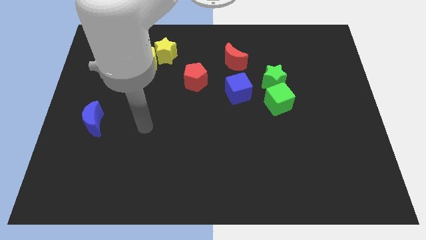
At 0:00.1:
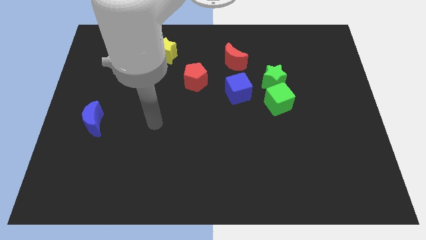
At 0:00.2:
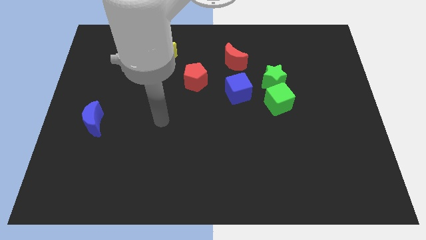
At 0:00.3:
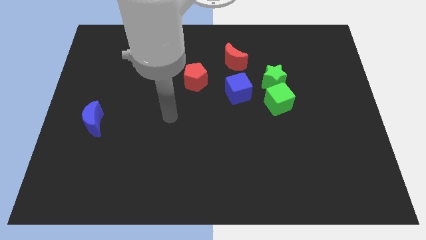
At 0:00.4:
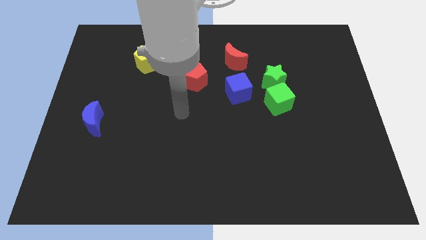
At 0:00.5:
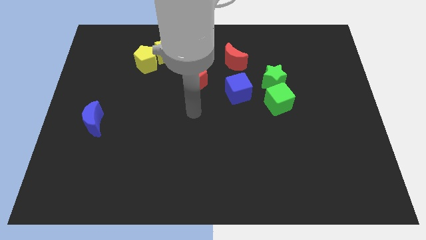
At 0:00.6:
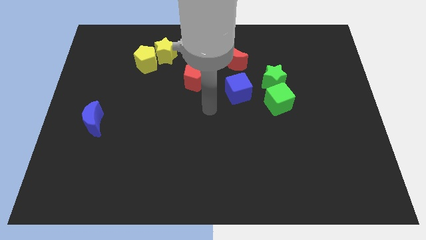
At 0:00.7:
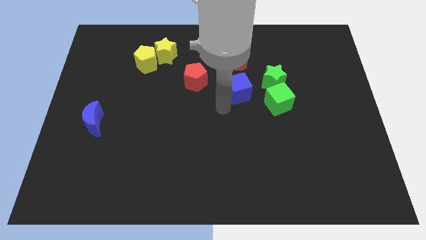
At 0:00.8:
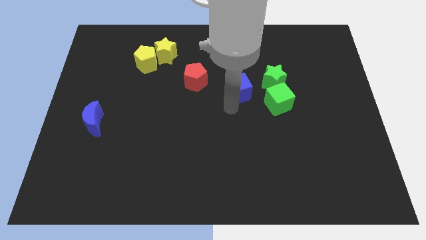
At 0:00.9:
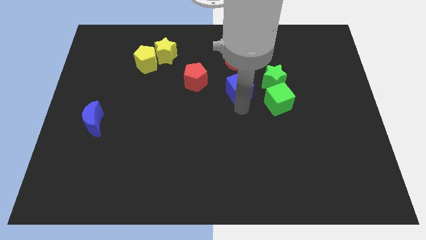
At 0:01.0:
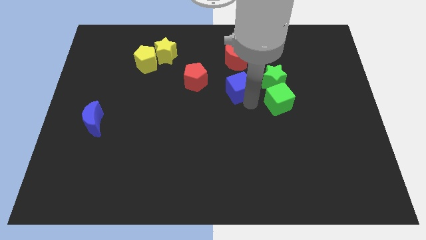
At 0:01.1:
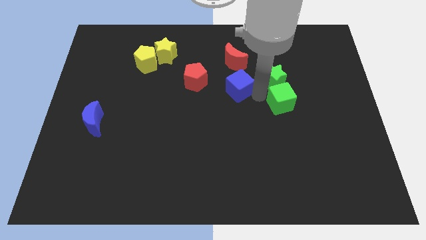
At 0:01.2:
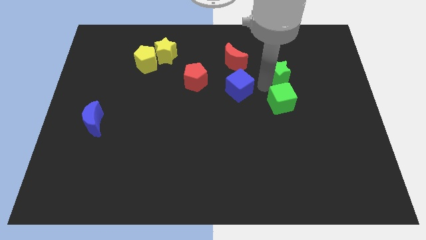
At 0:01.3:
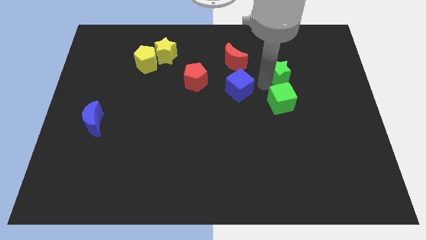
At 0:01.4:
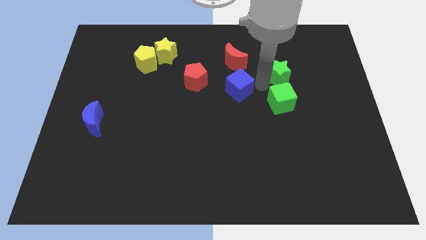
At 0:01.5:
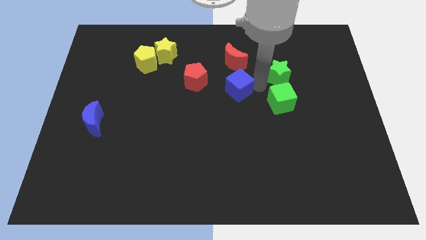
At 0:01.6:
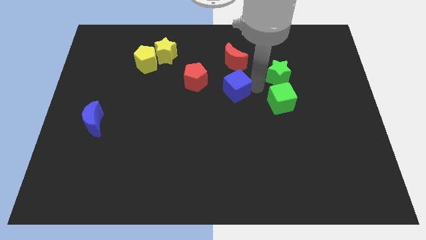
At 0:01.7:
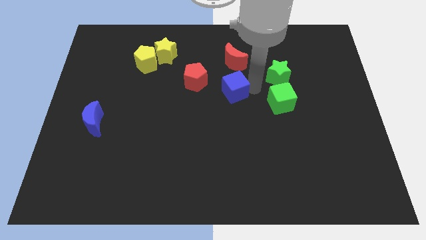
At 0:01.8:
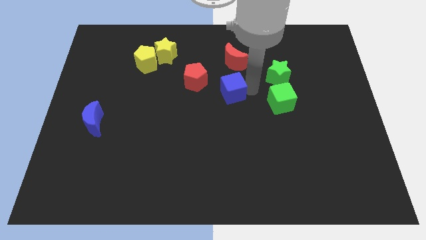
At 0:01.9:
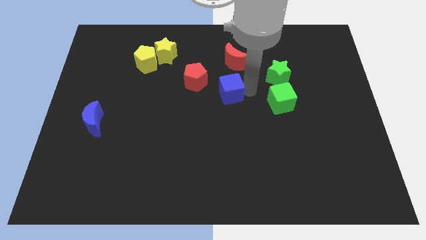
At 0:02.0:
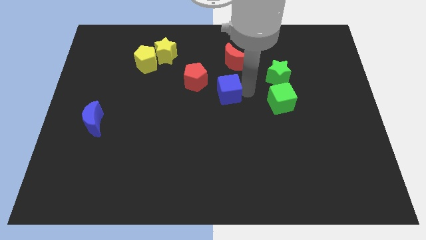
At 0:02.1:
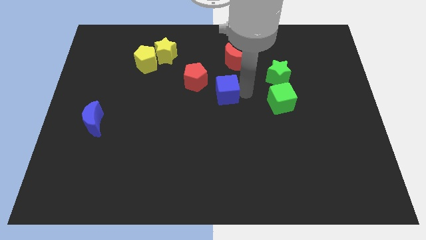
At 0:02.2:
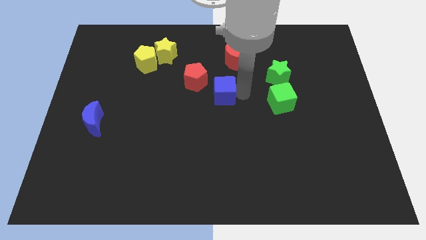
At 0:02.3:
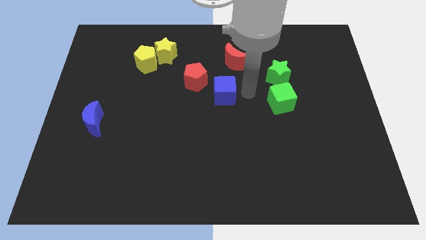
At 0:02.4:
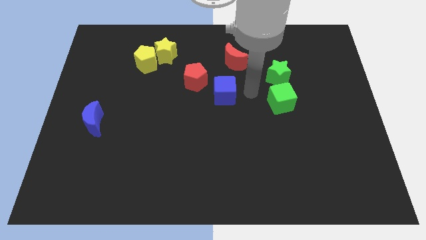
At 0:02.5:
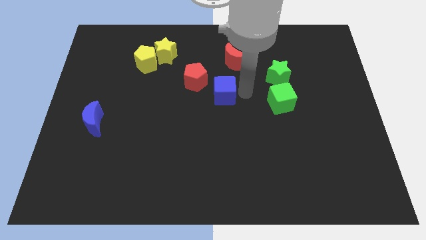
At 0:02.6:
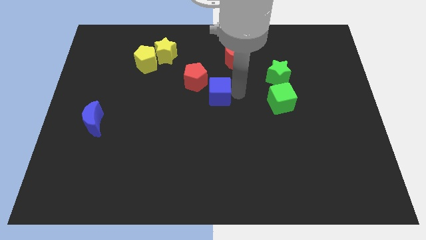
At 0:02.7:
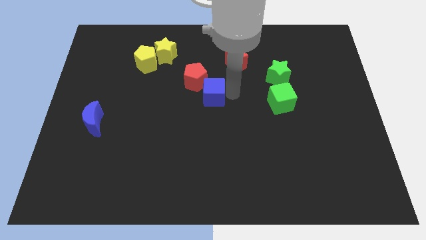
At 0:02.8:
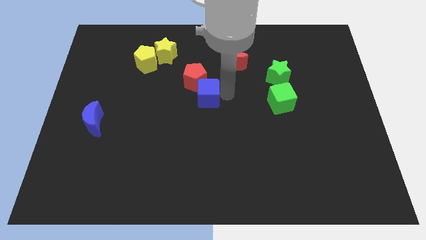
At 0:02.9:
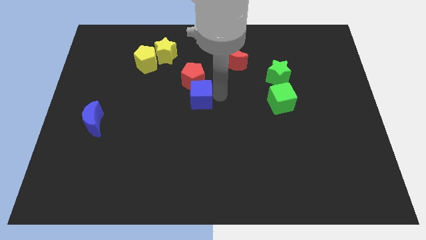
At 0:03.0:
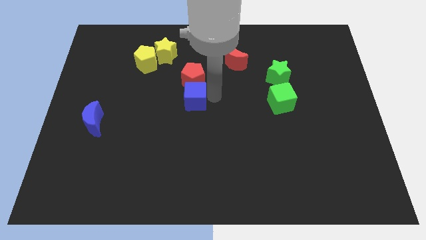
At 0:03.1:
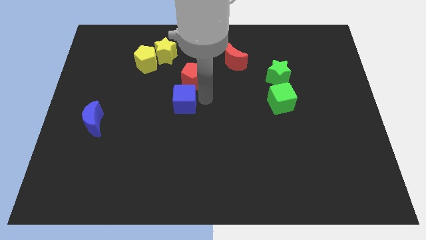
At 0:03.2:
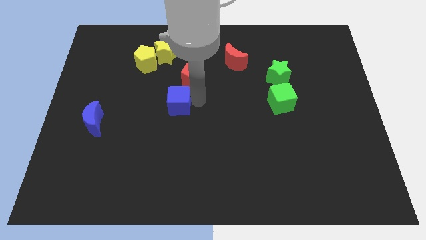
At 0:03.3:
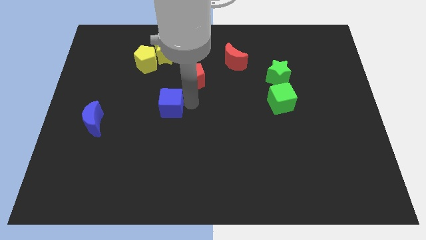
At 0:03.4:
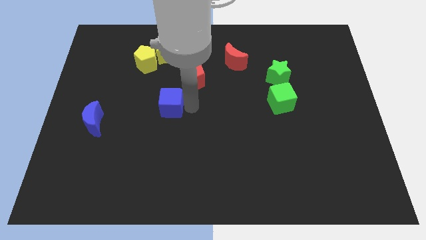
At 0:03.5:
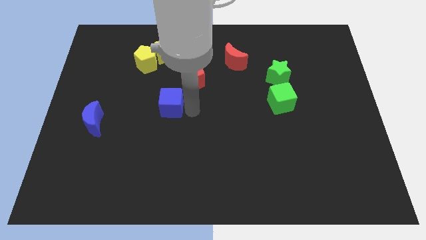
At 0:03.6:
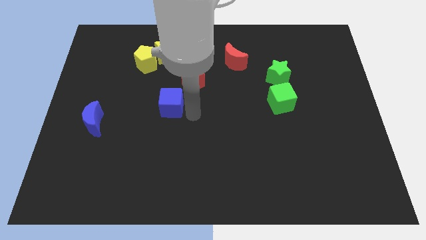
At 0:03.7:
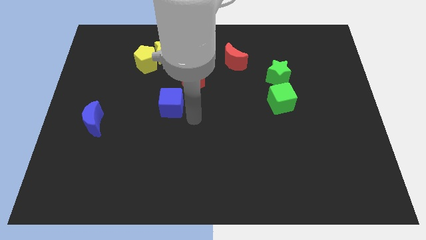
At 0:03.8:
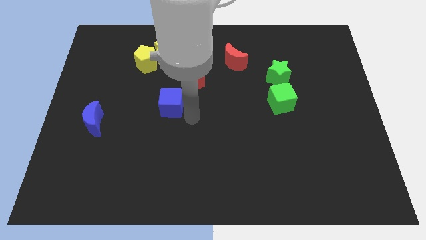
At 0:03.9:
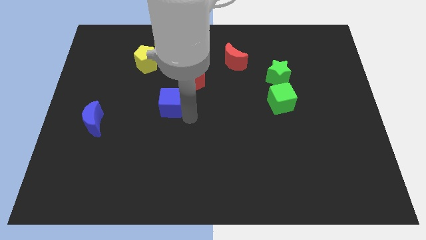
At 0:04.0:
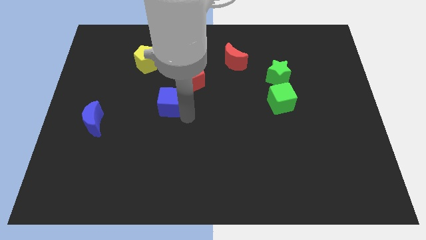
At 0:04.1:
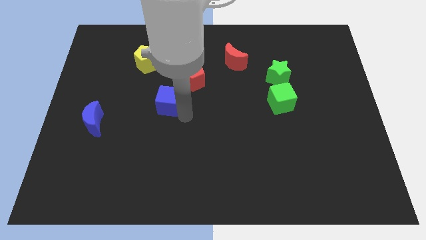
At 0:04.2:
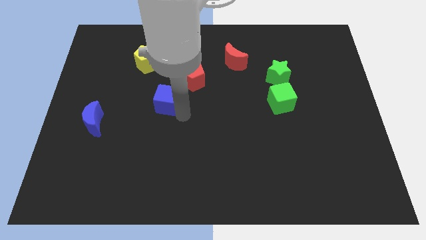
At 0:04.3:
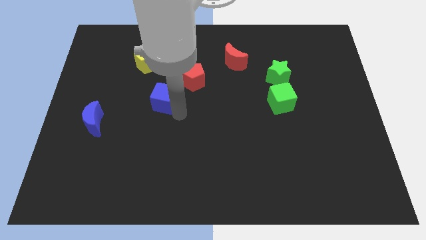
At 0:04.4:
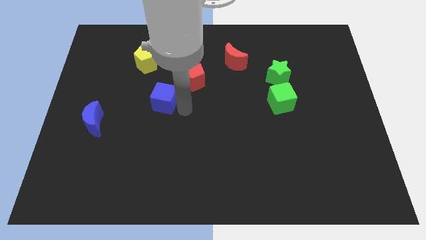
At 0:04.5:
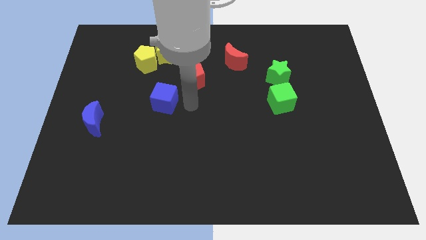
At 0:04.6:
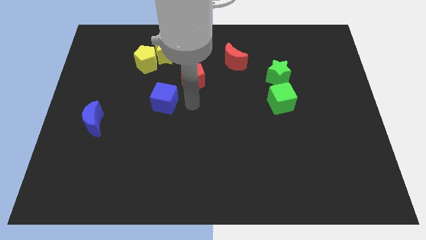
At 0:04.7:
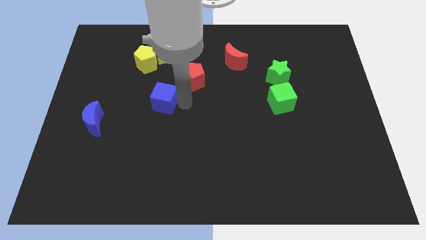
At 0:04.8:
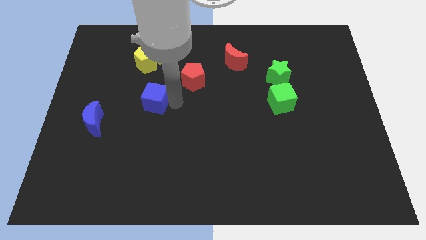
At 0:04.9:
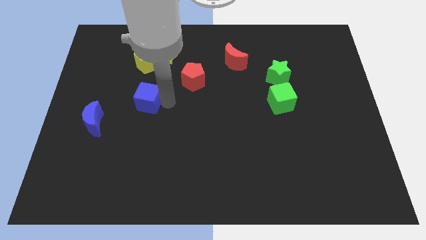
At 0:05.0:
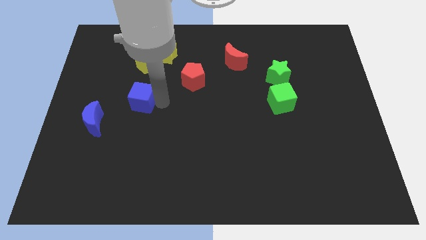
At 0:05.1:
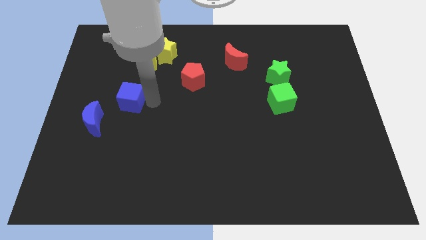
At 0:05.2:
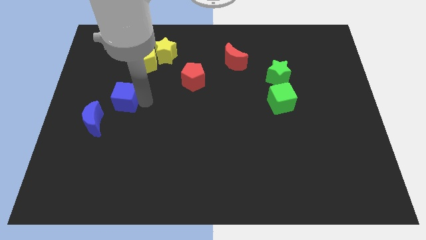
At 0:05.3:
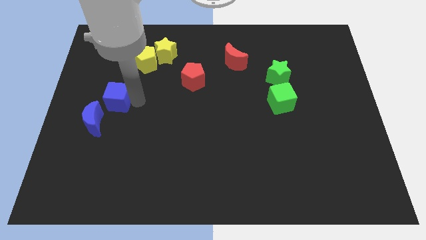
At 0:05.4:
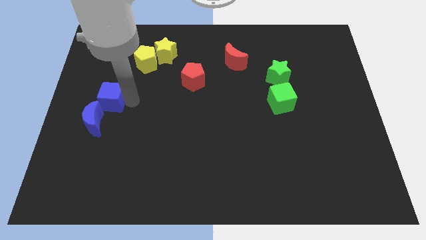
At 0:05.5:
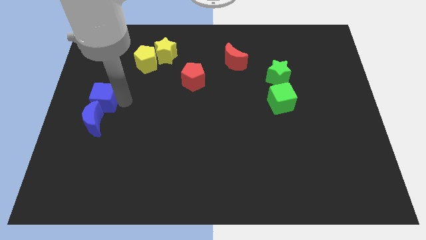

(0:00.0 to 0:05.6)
slide the blue cube to the center left
